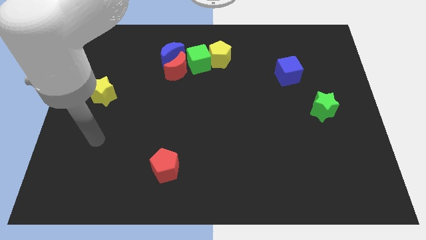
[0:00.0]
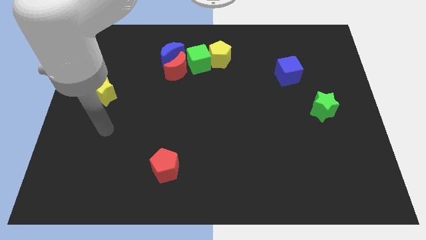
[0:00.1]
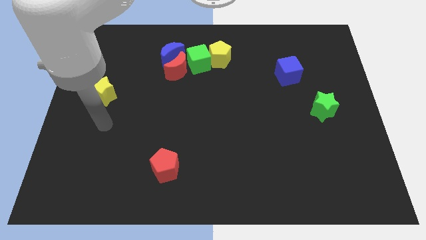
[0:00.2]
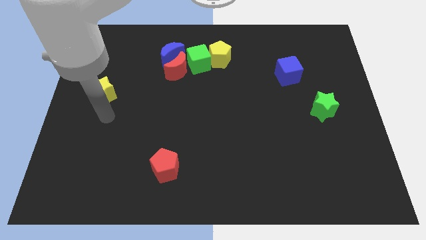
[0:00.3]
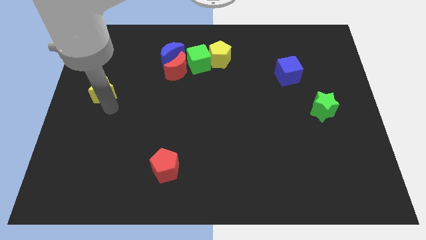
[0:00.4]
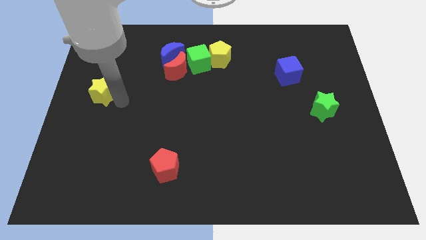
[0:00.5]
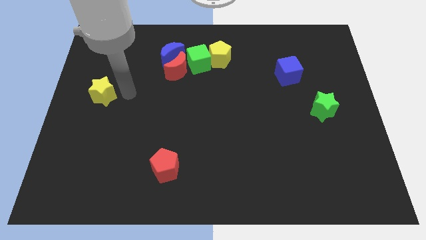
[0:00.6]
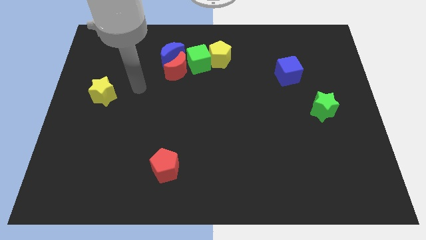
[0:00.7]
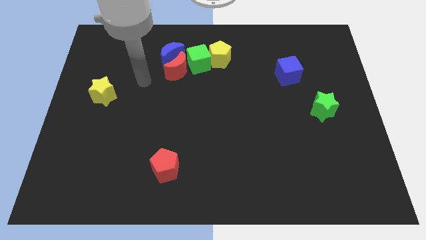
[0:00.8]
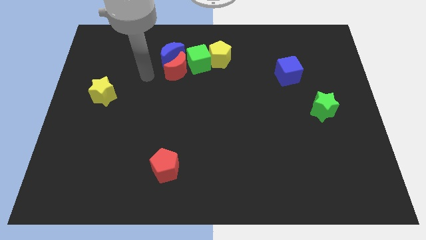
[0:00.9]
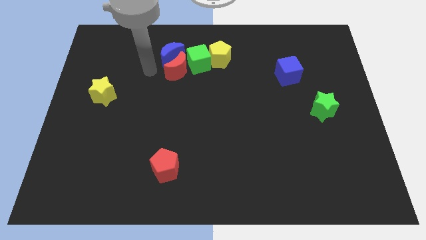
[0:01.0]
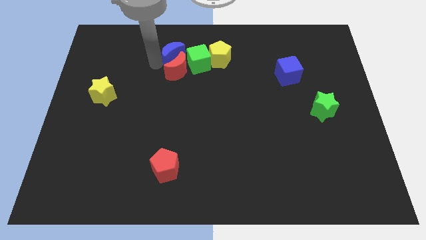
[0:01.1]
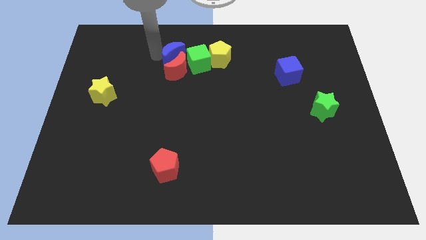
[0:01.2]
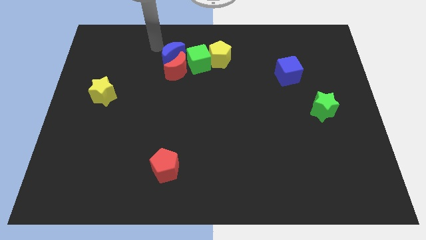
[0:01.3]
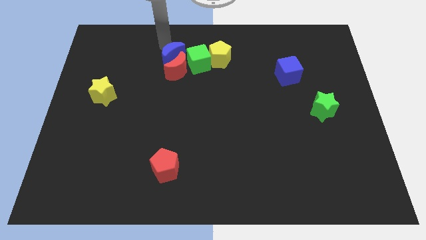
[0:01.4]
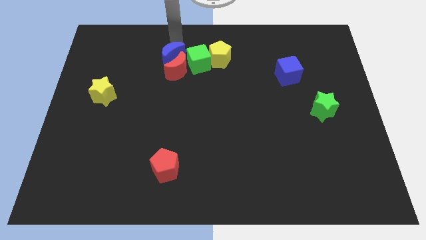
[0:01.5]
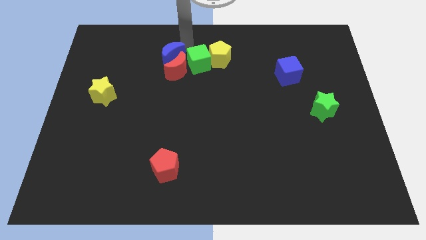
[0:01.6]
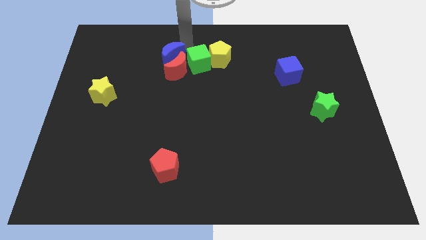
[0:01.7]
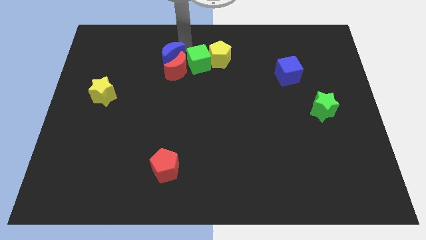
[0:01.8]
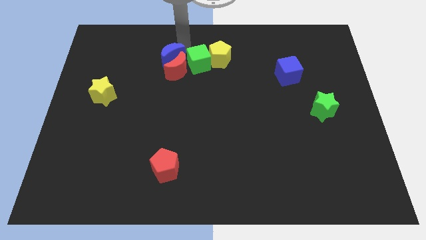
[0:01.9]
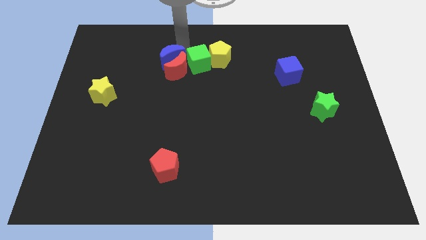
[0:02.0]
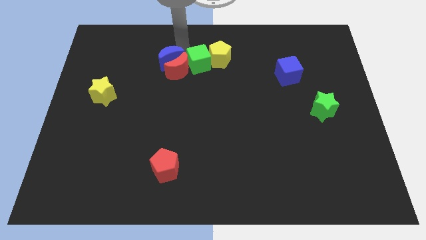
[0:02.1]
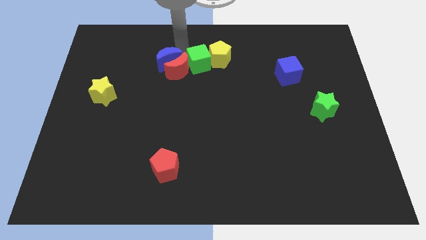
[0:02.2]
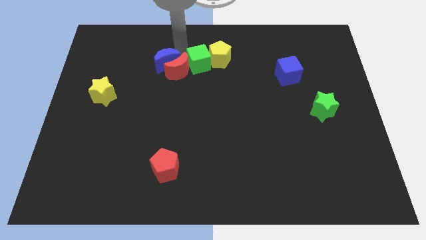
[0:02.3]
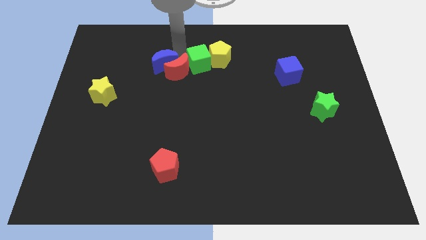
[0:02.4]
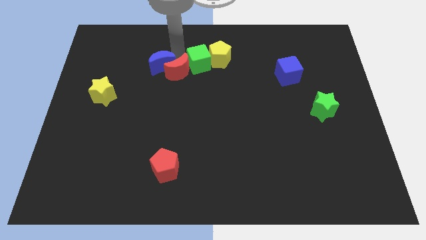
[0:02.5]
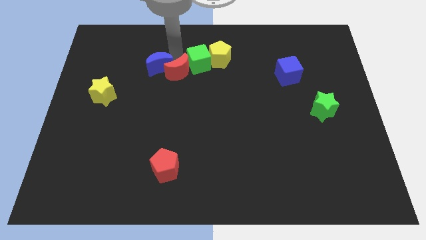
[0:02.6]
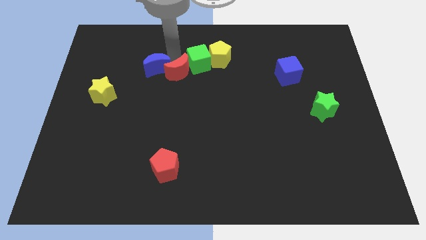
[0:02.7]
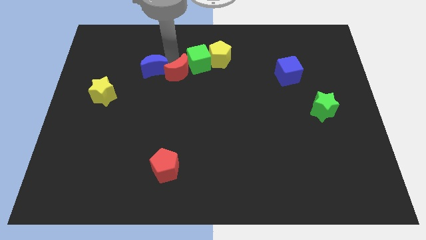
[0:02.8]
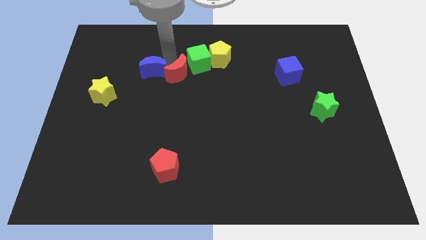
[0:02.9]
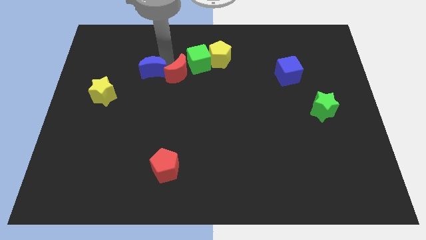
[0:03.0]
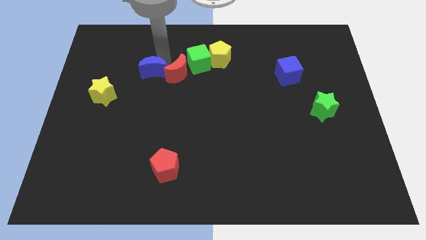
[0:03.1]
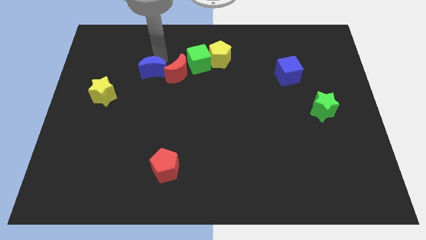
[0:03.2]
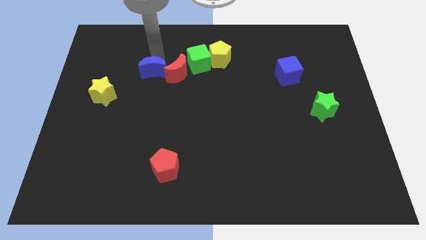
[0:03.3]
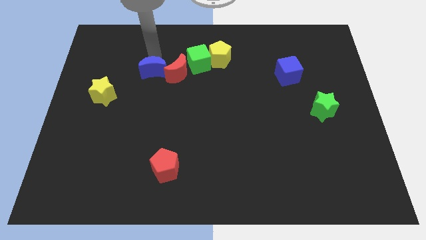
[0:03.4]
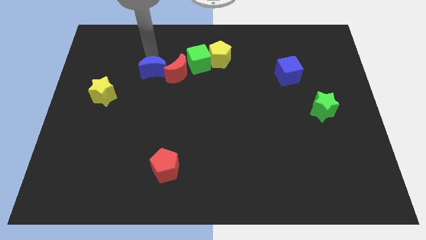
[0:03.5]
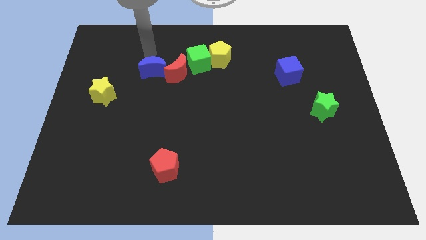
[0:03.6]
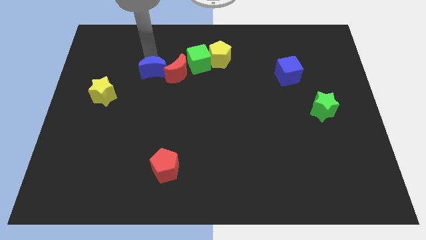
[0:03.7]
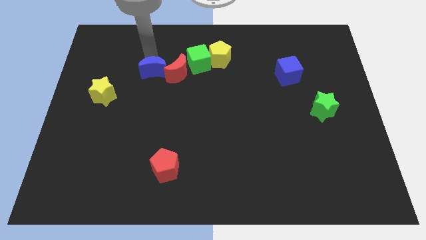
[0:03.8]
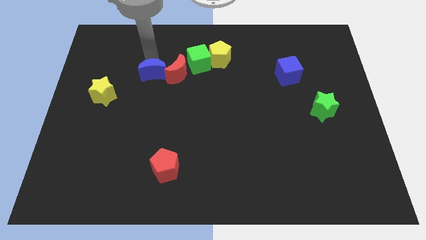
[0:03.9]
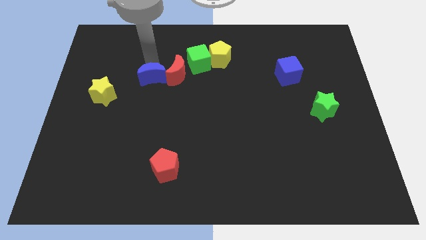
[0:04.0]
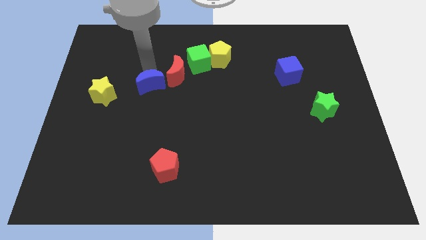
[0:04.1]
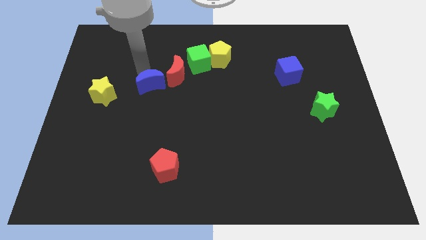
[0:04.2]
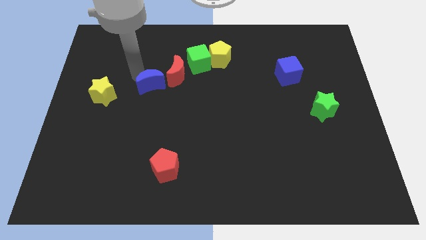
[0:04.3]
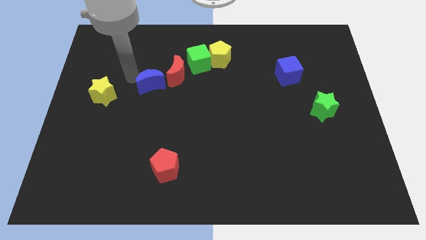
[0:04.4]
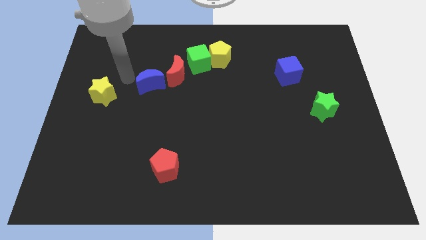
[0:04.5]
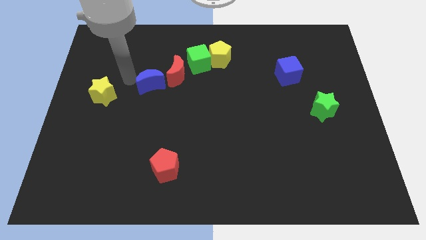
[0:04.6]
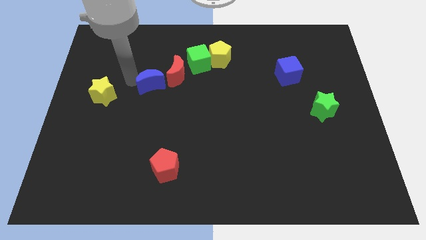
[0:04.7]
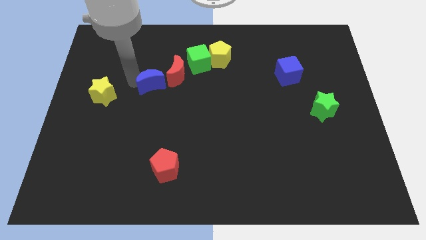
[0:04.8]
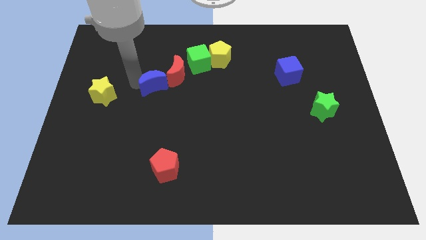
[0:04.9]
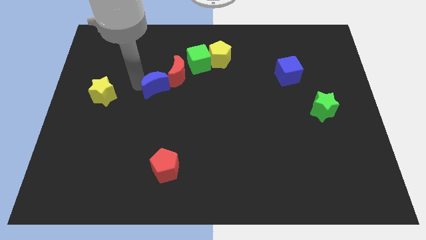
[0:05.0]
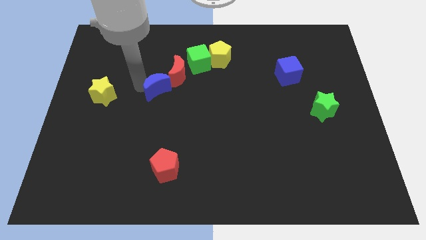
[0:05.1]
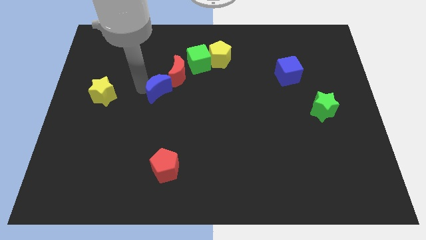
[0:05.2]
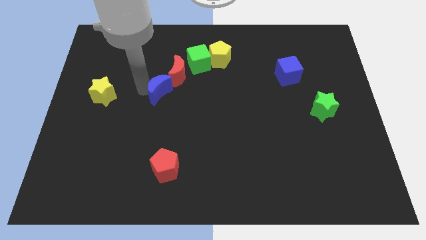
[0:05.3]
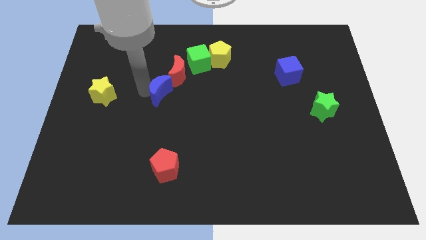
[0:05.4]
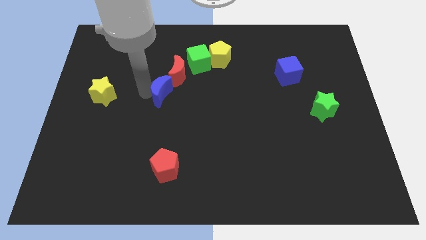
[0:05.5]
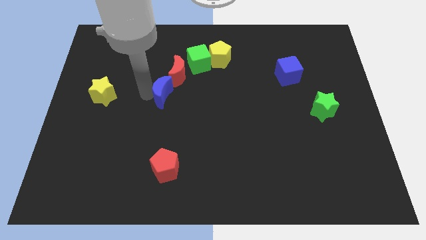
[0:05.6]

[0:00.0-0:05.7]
move the blue moon to the center of the board

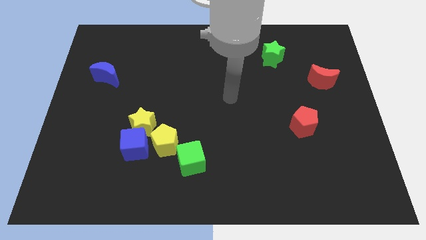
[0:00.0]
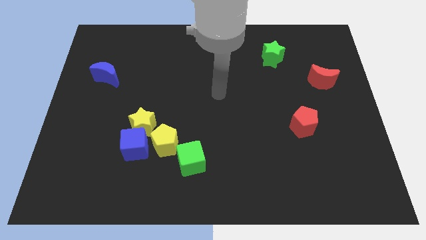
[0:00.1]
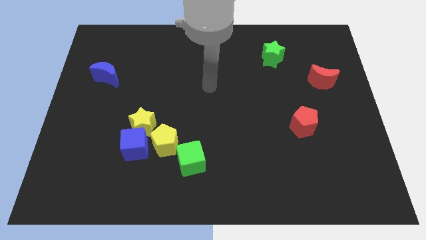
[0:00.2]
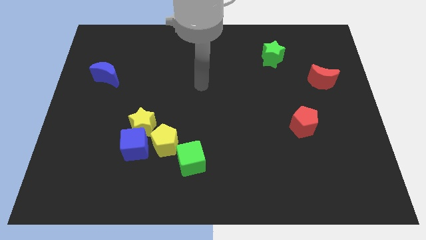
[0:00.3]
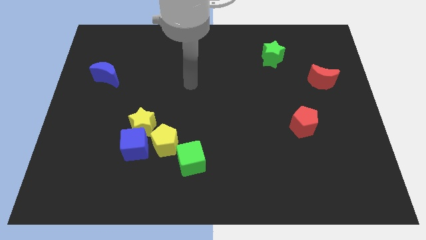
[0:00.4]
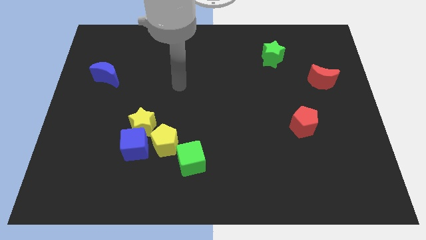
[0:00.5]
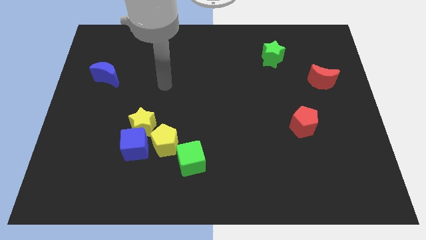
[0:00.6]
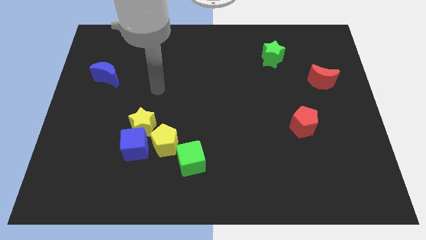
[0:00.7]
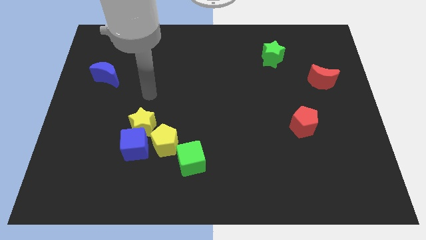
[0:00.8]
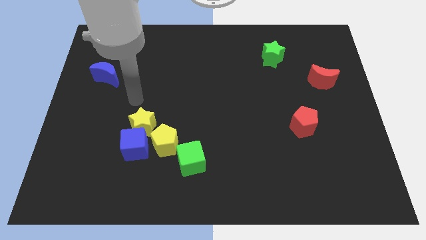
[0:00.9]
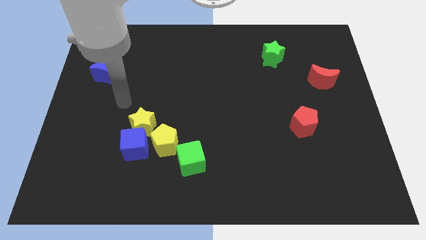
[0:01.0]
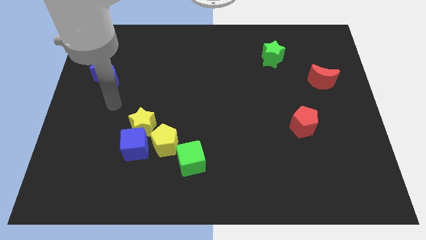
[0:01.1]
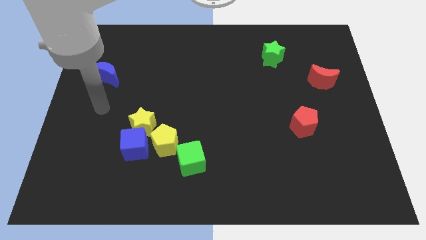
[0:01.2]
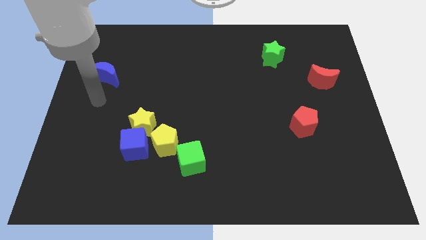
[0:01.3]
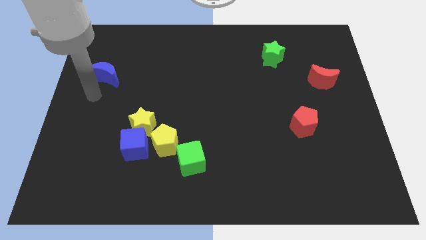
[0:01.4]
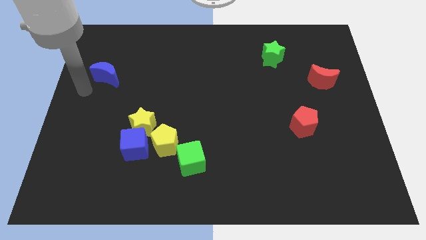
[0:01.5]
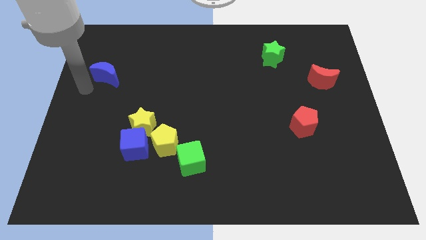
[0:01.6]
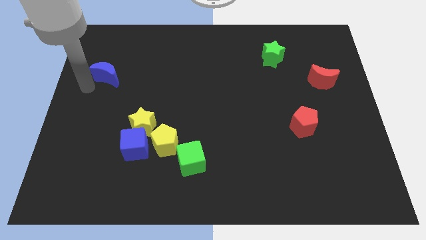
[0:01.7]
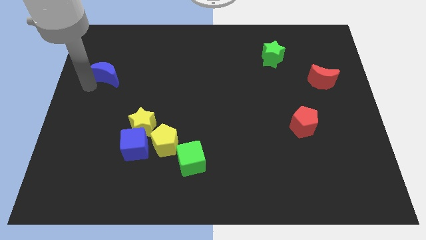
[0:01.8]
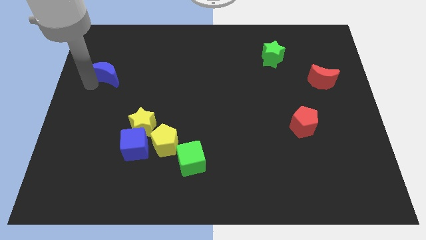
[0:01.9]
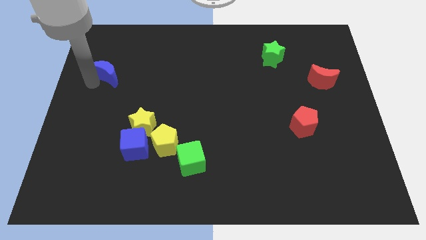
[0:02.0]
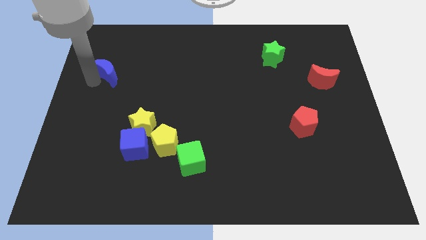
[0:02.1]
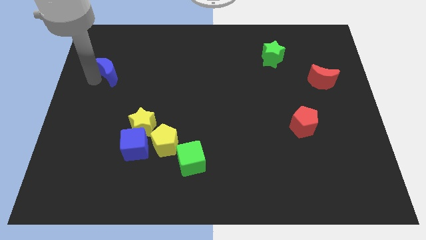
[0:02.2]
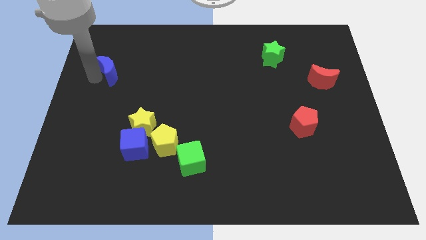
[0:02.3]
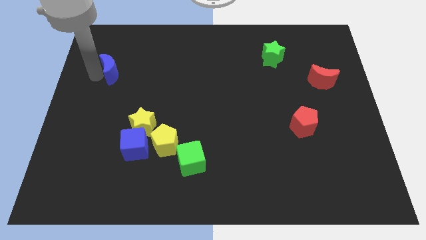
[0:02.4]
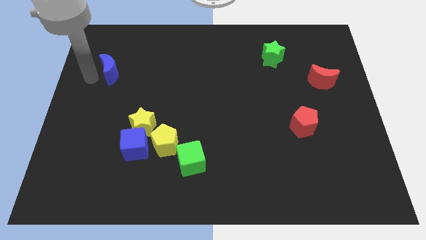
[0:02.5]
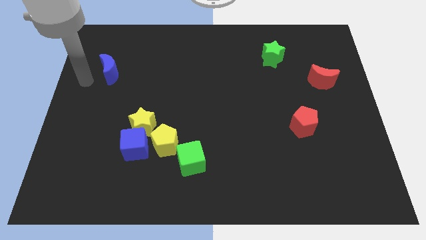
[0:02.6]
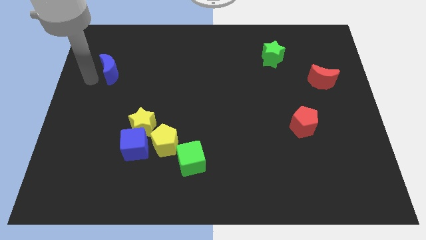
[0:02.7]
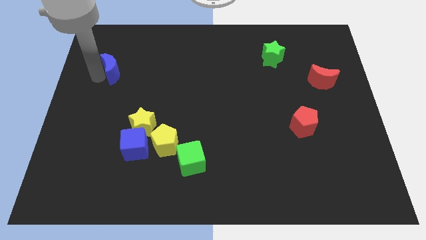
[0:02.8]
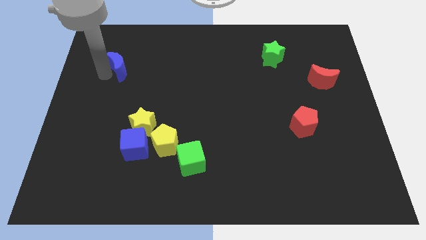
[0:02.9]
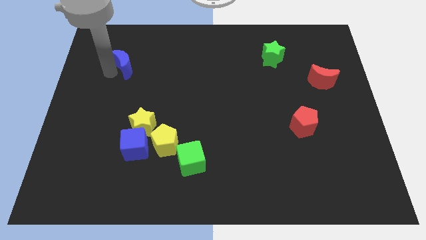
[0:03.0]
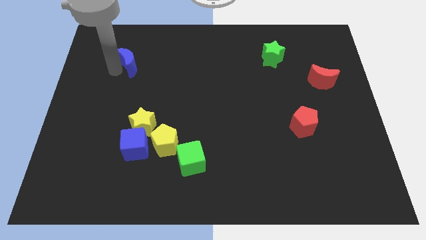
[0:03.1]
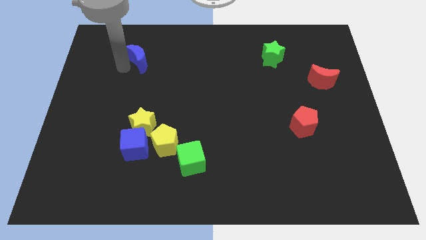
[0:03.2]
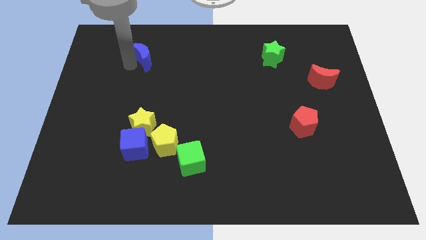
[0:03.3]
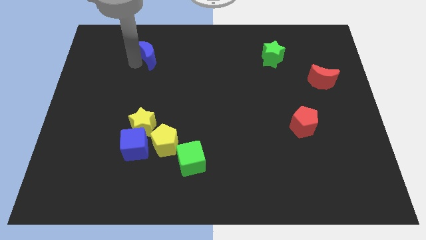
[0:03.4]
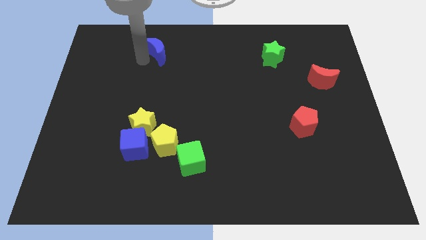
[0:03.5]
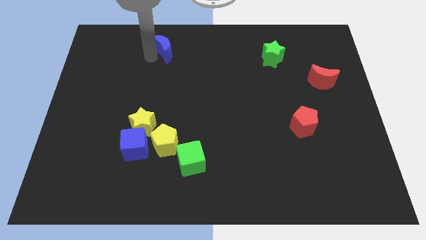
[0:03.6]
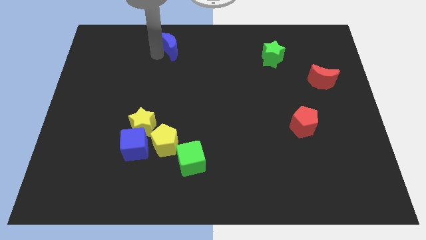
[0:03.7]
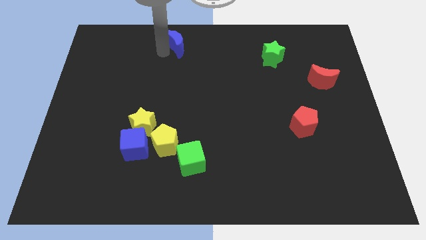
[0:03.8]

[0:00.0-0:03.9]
move the blue moon to the towards your base
